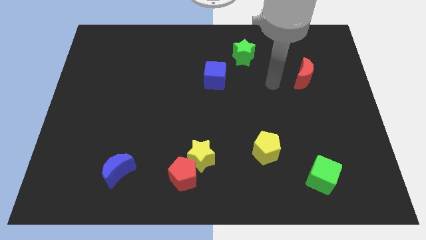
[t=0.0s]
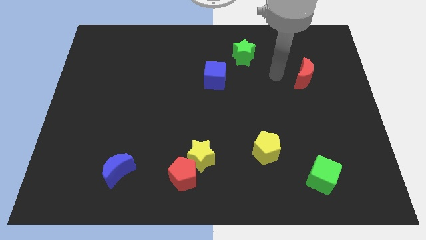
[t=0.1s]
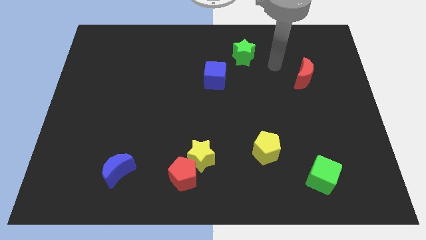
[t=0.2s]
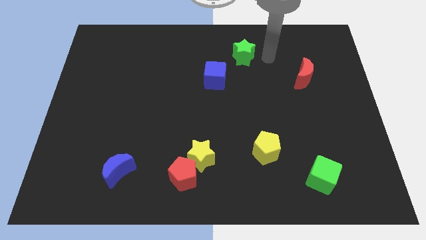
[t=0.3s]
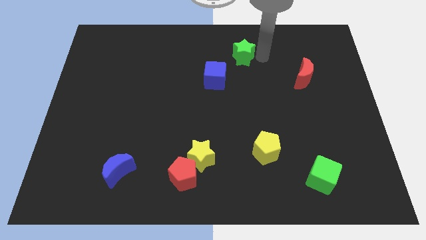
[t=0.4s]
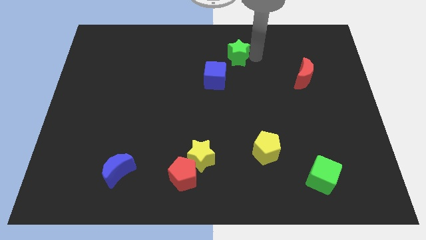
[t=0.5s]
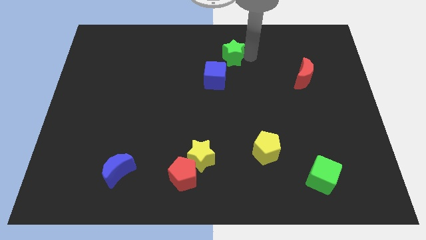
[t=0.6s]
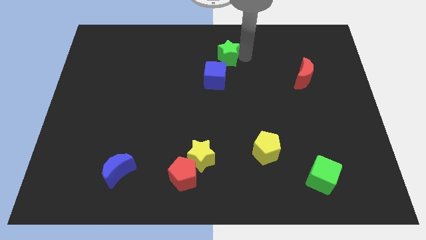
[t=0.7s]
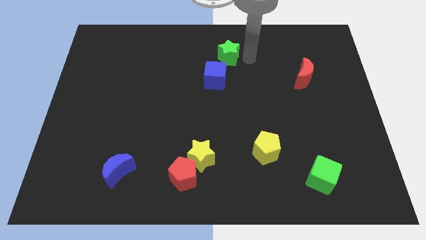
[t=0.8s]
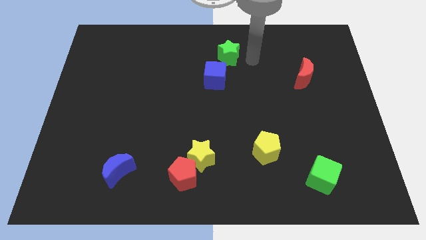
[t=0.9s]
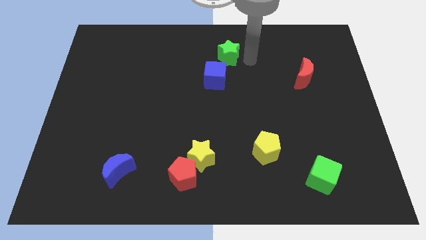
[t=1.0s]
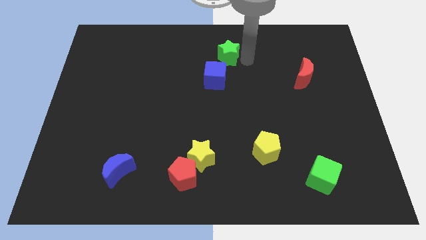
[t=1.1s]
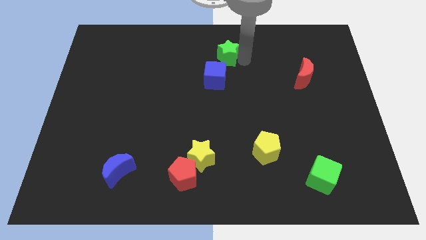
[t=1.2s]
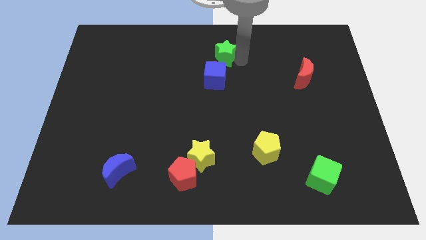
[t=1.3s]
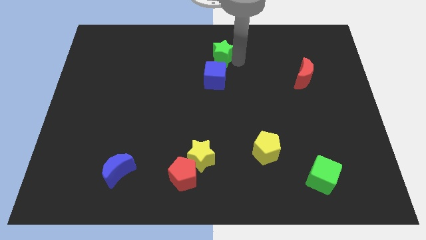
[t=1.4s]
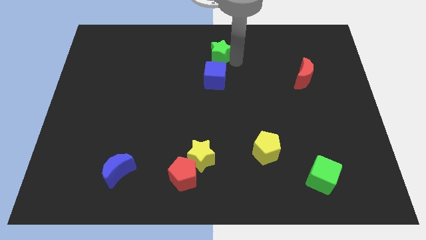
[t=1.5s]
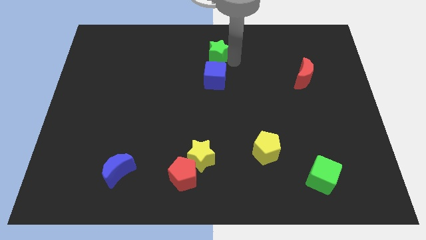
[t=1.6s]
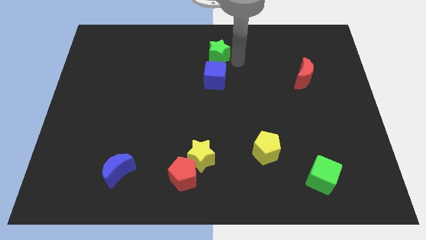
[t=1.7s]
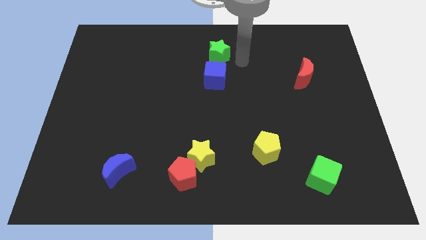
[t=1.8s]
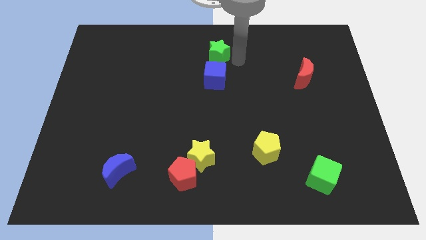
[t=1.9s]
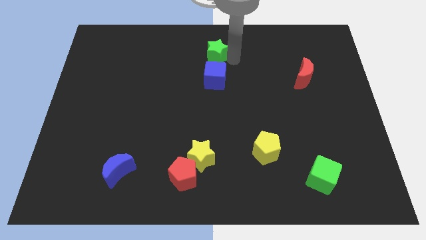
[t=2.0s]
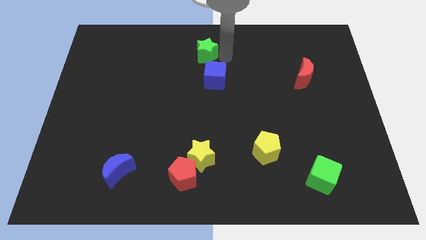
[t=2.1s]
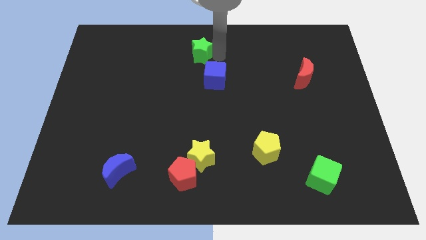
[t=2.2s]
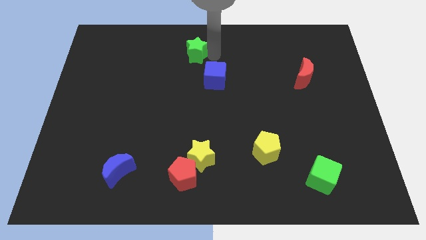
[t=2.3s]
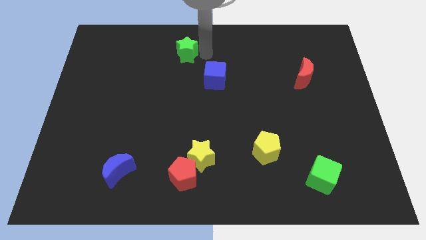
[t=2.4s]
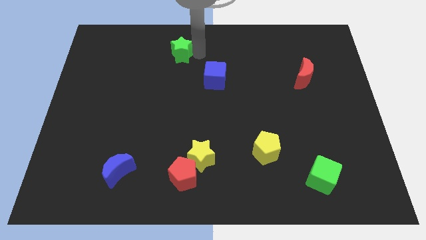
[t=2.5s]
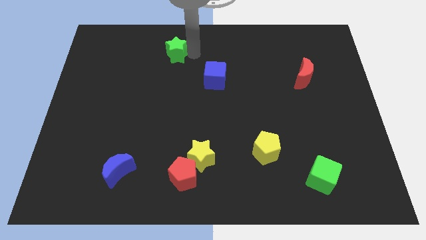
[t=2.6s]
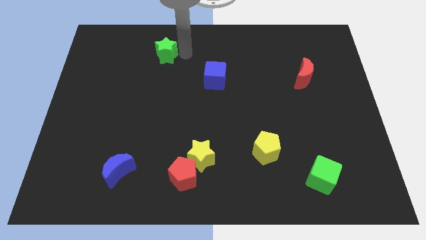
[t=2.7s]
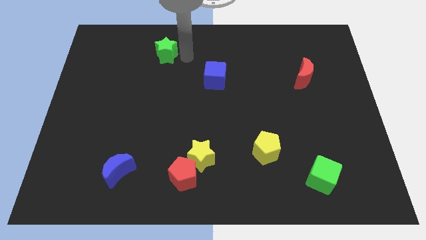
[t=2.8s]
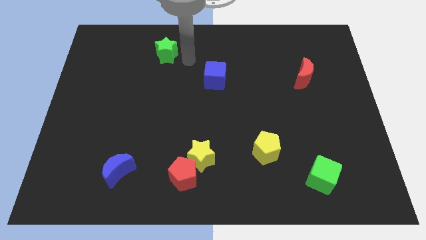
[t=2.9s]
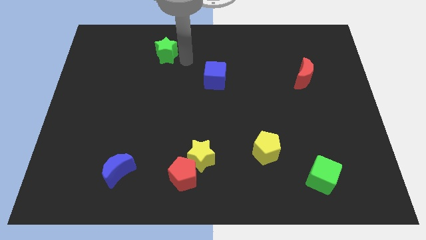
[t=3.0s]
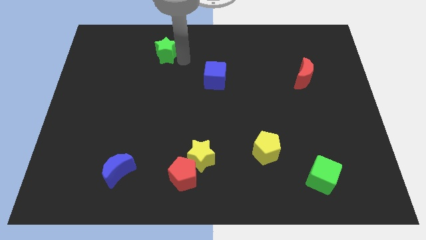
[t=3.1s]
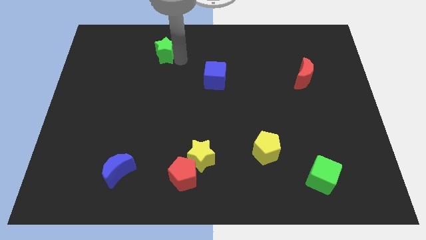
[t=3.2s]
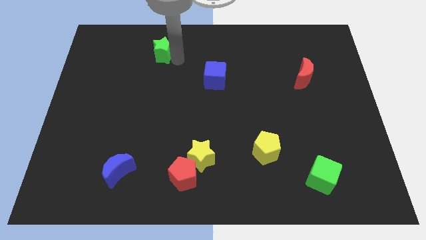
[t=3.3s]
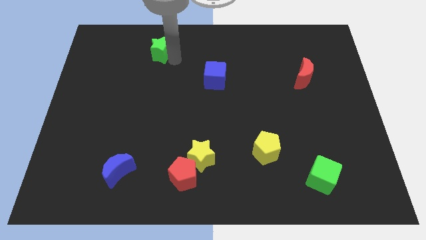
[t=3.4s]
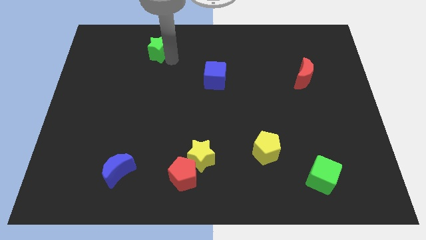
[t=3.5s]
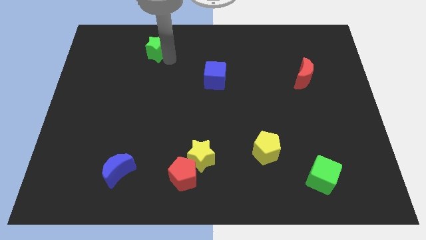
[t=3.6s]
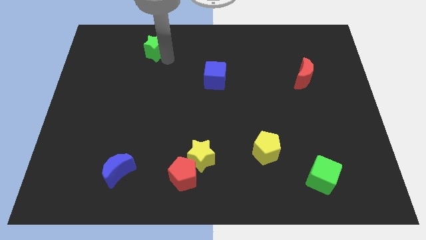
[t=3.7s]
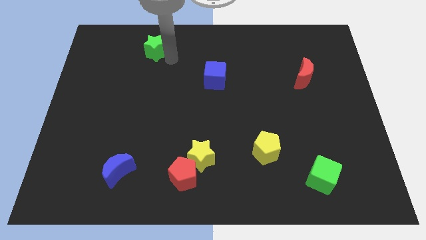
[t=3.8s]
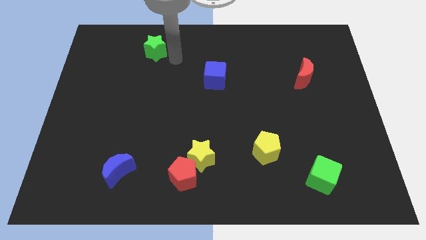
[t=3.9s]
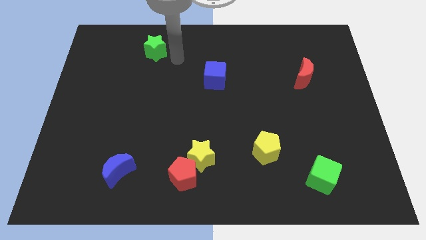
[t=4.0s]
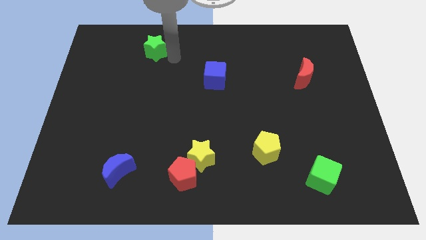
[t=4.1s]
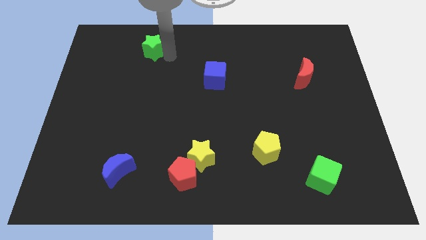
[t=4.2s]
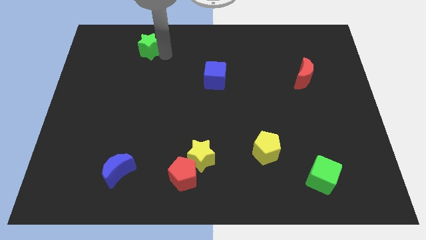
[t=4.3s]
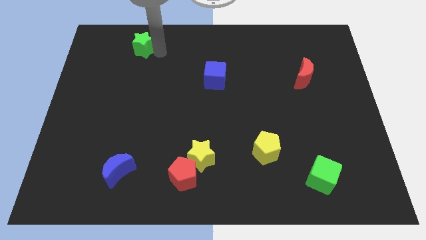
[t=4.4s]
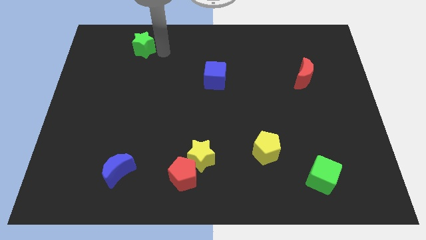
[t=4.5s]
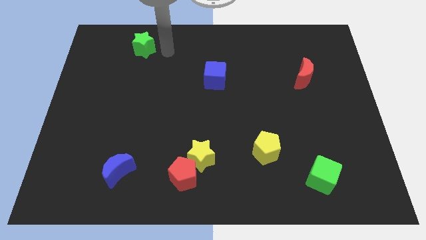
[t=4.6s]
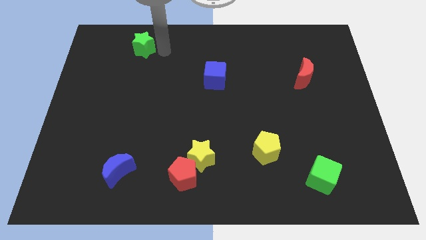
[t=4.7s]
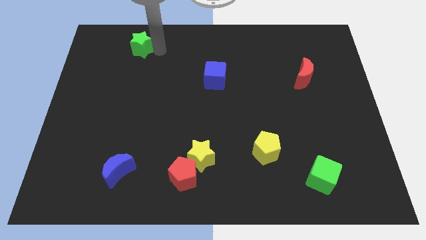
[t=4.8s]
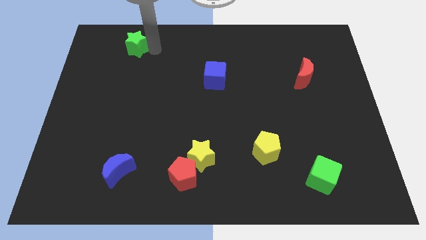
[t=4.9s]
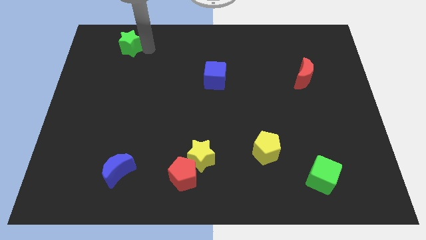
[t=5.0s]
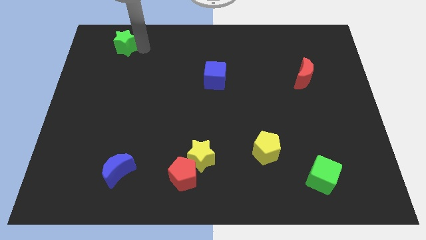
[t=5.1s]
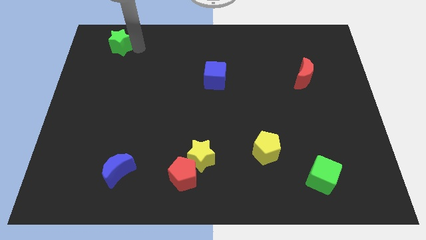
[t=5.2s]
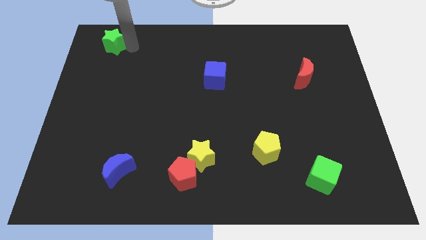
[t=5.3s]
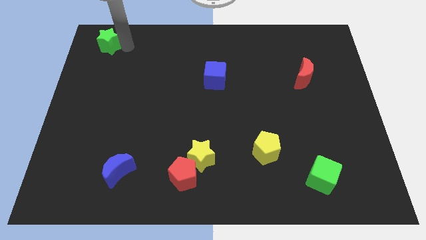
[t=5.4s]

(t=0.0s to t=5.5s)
slide the green star to the top left corner

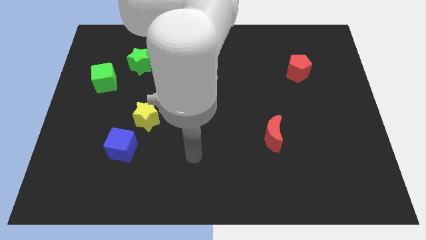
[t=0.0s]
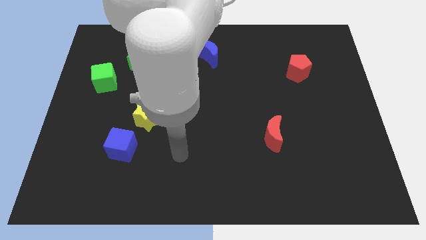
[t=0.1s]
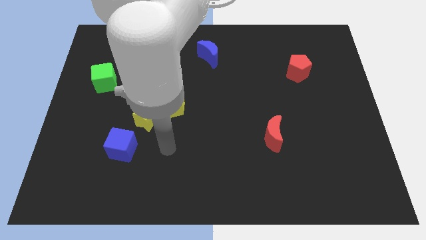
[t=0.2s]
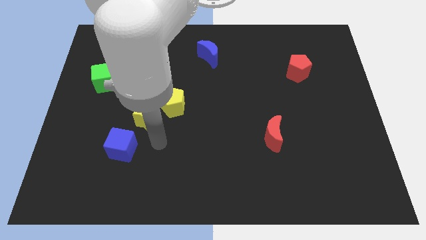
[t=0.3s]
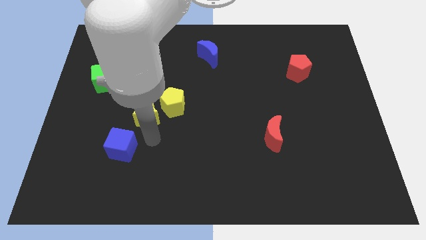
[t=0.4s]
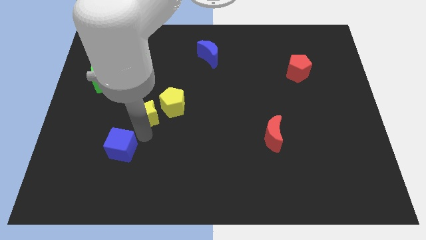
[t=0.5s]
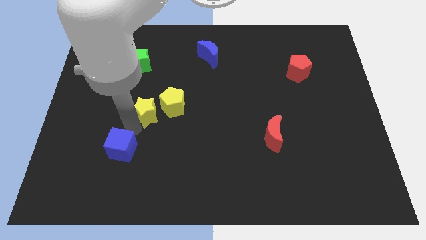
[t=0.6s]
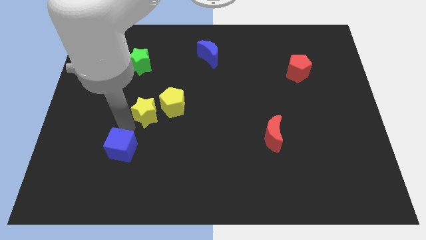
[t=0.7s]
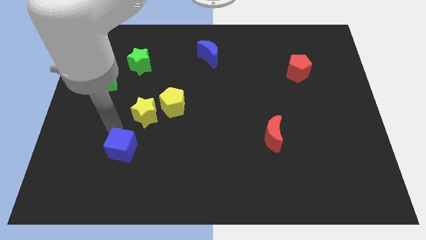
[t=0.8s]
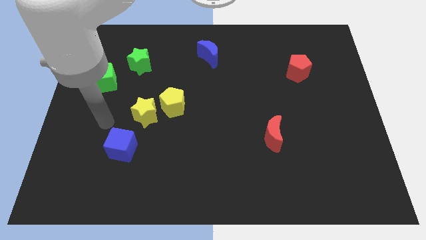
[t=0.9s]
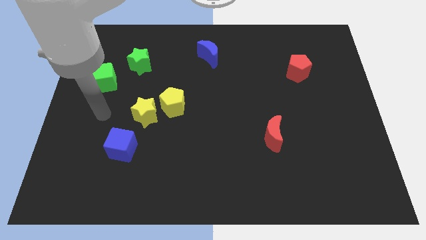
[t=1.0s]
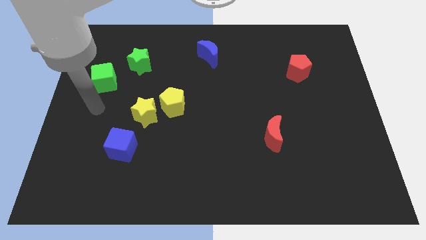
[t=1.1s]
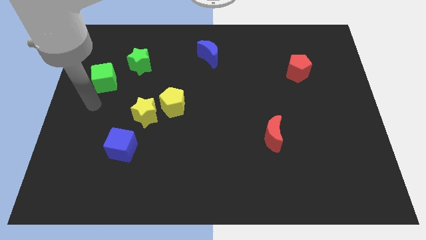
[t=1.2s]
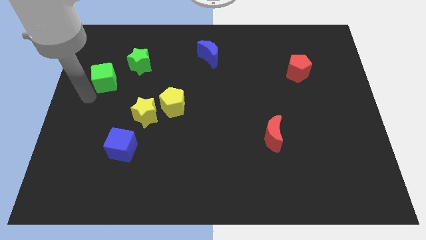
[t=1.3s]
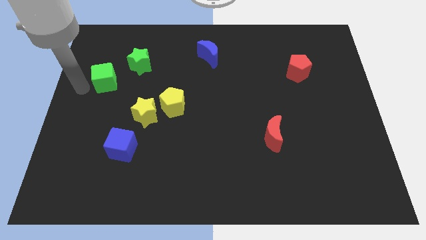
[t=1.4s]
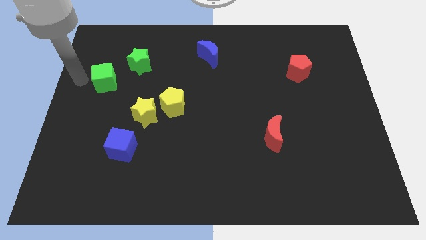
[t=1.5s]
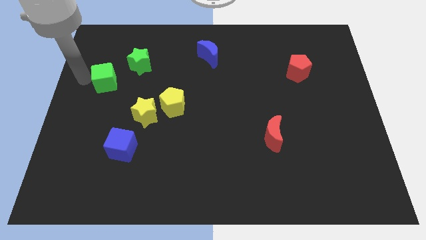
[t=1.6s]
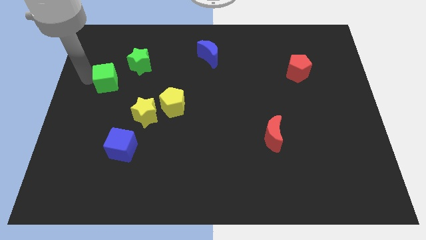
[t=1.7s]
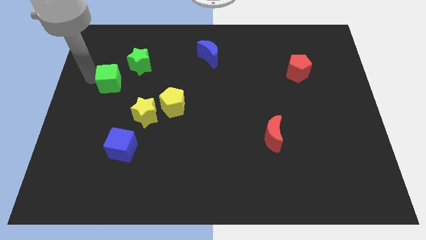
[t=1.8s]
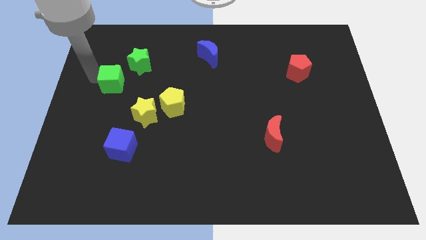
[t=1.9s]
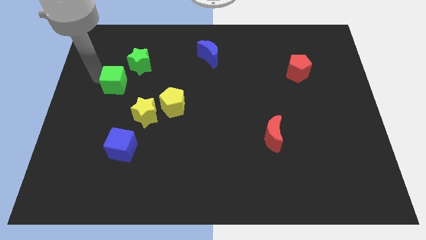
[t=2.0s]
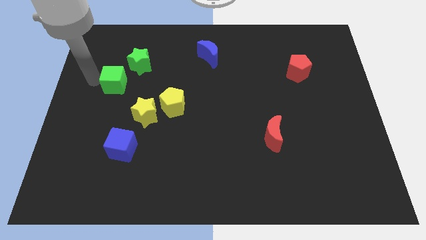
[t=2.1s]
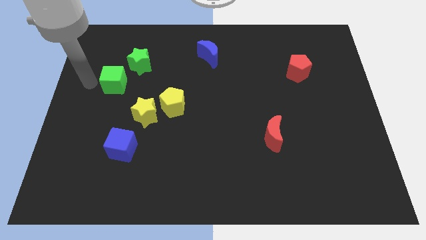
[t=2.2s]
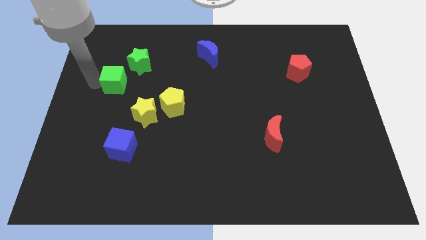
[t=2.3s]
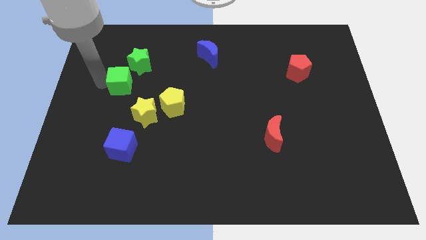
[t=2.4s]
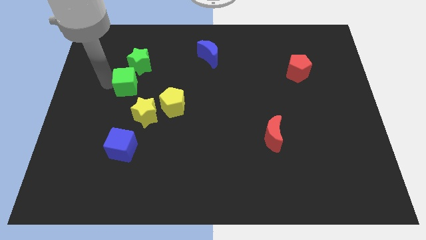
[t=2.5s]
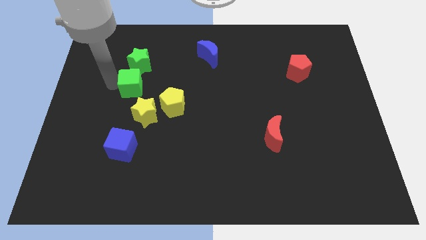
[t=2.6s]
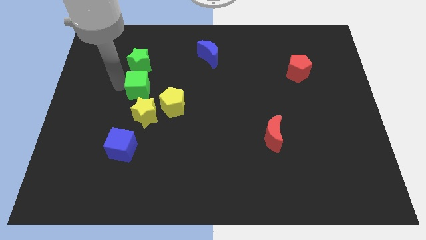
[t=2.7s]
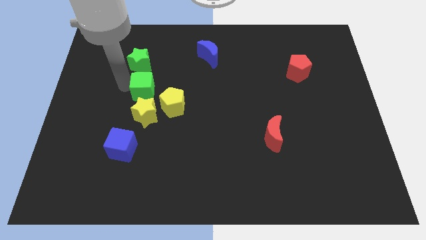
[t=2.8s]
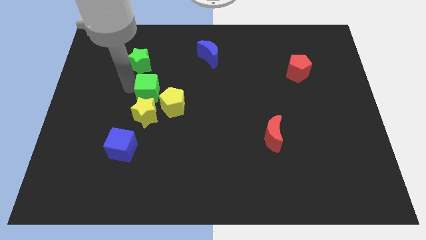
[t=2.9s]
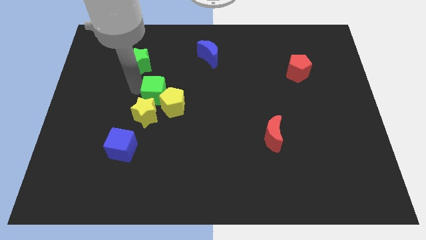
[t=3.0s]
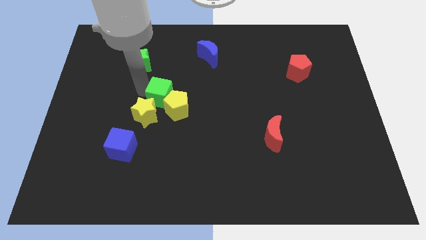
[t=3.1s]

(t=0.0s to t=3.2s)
put the green cube to the middle
